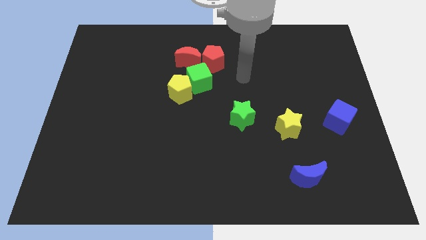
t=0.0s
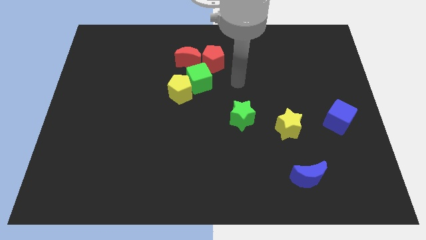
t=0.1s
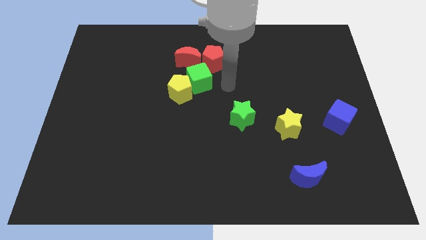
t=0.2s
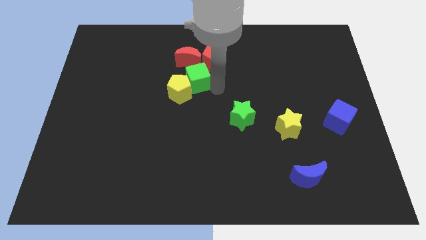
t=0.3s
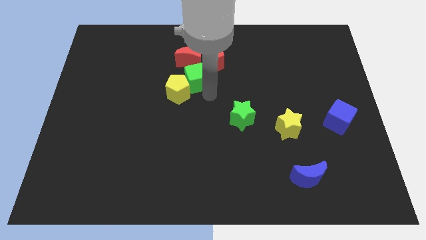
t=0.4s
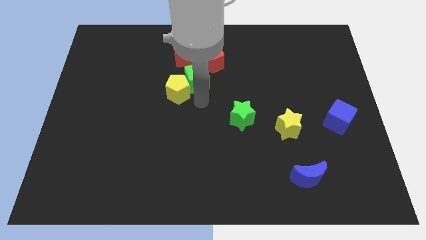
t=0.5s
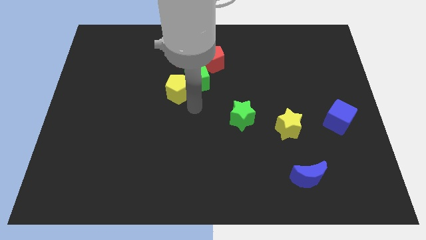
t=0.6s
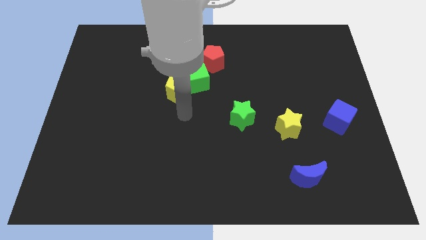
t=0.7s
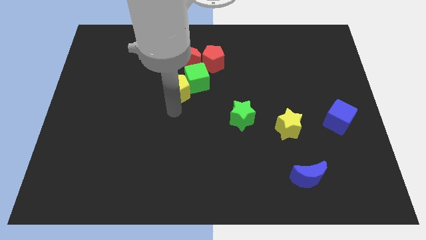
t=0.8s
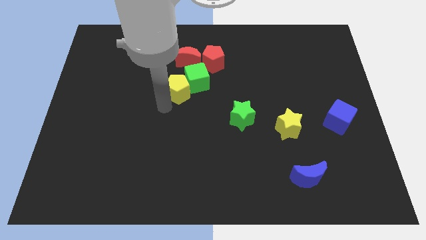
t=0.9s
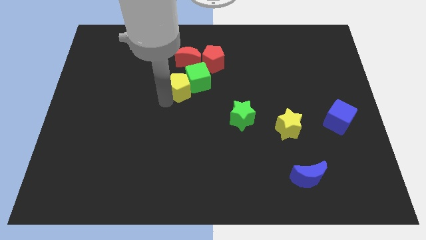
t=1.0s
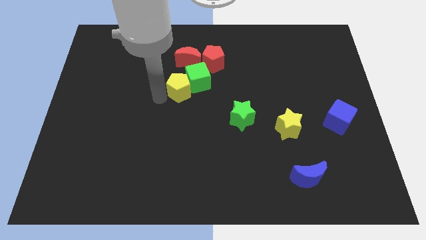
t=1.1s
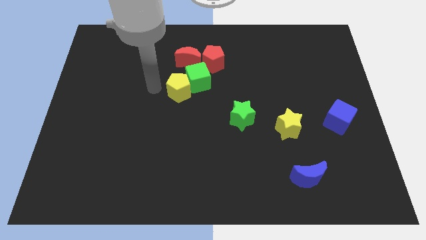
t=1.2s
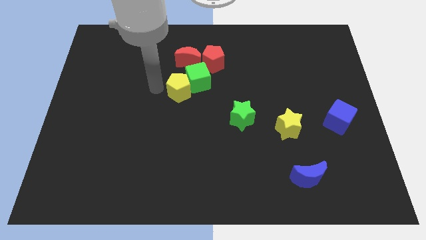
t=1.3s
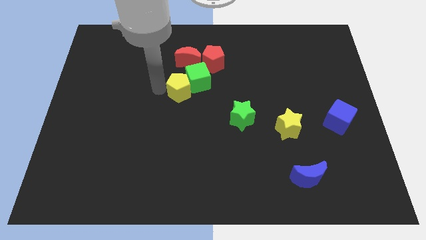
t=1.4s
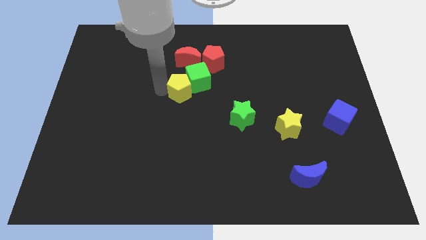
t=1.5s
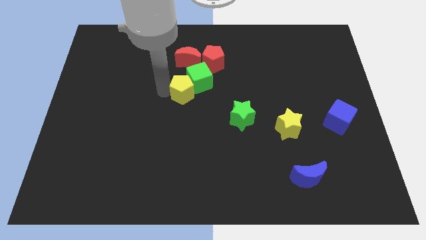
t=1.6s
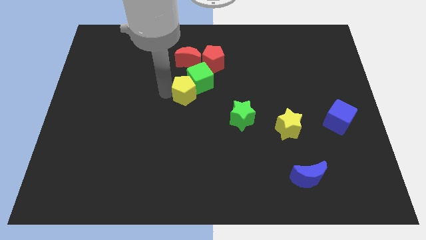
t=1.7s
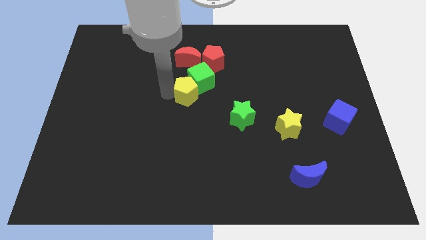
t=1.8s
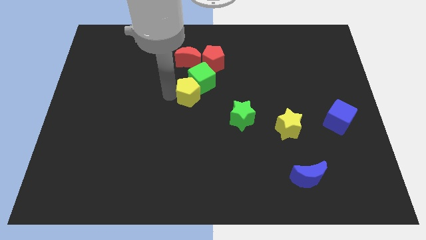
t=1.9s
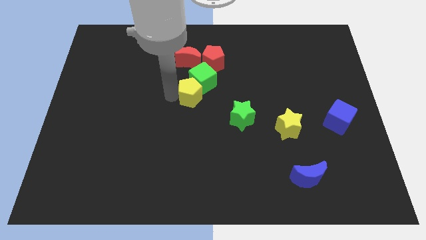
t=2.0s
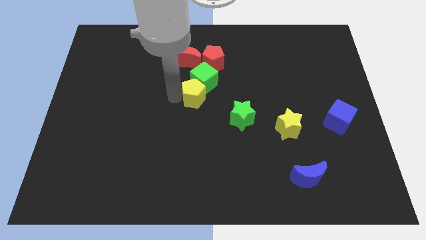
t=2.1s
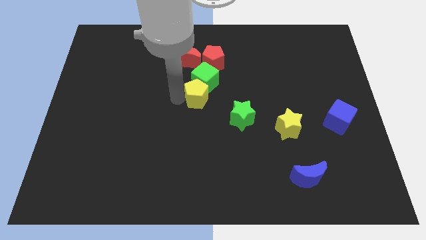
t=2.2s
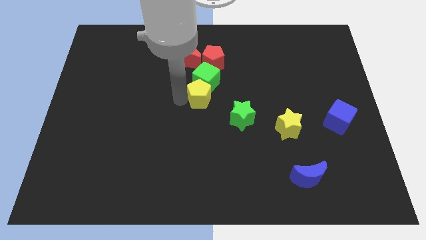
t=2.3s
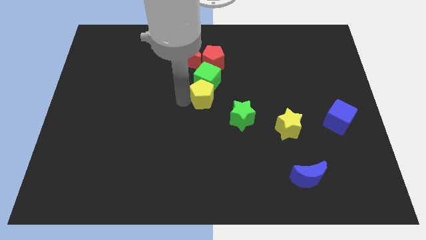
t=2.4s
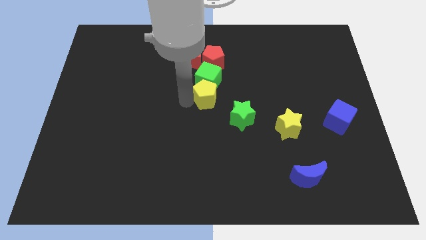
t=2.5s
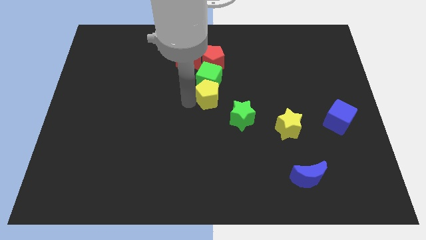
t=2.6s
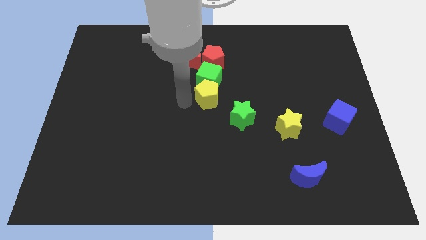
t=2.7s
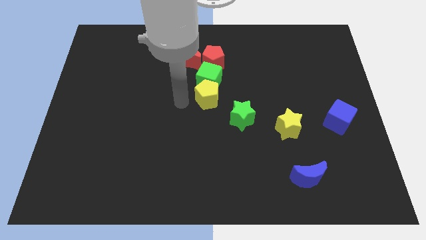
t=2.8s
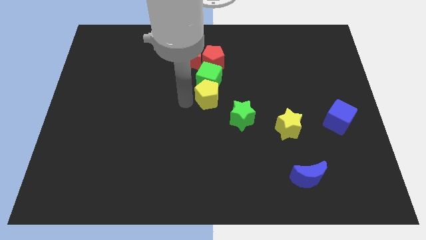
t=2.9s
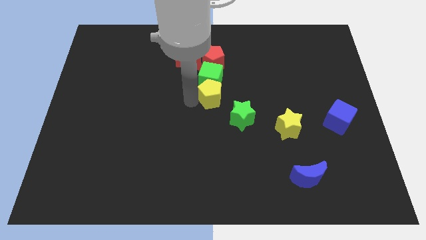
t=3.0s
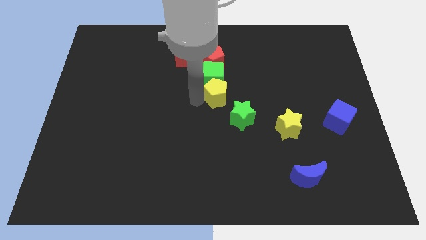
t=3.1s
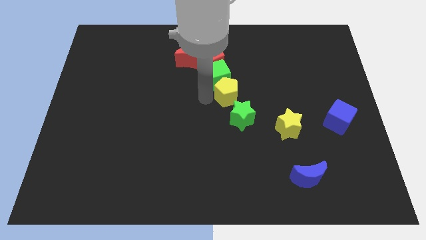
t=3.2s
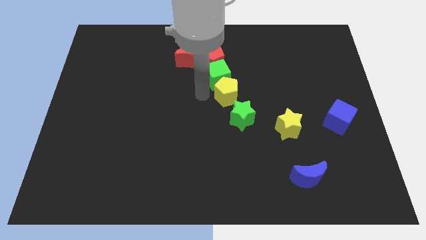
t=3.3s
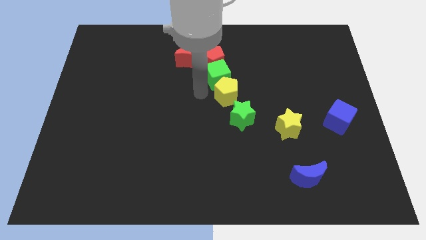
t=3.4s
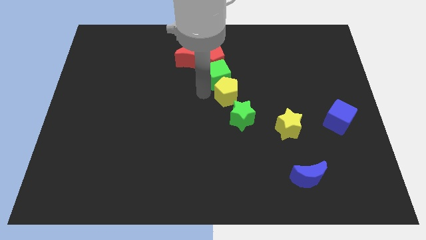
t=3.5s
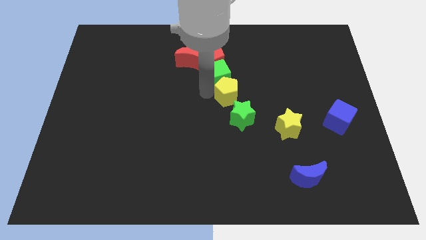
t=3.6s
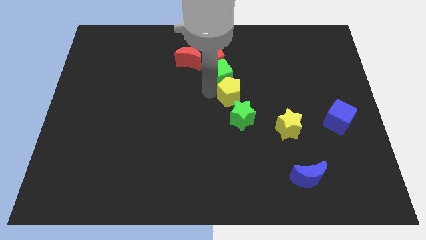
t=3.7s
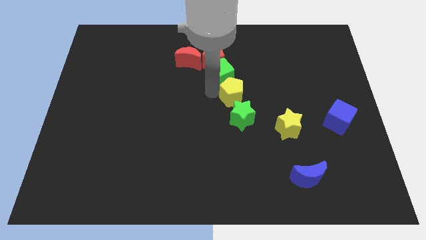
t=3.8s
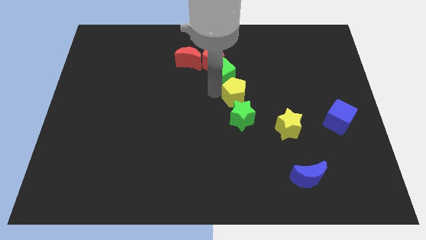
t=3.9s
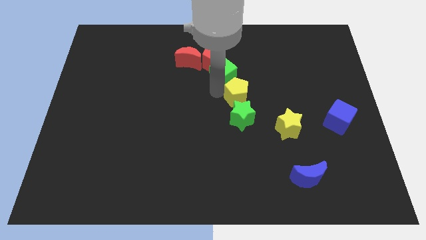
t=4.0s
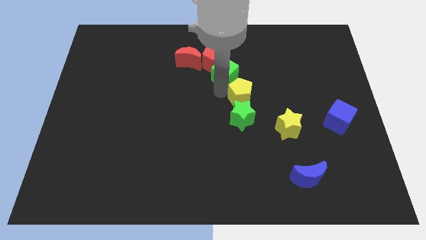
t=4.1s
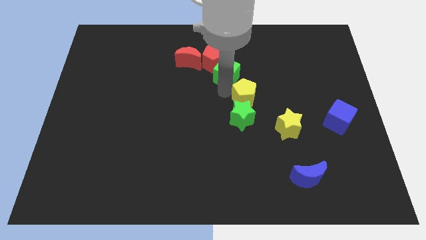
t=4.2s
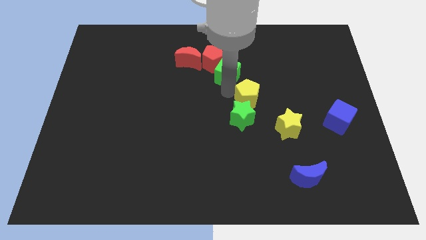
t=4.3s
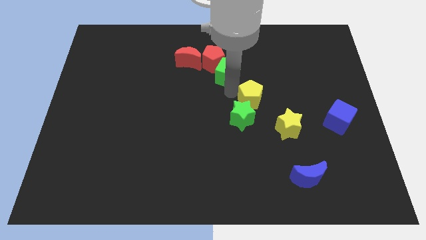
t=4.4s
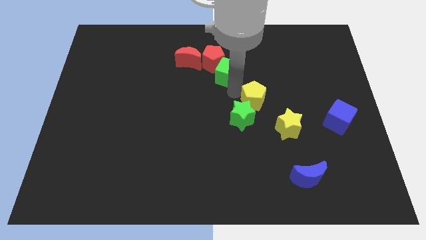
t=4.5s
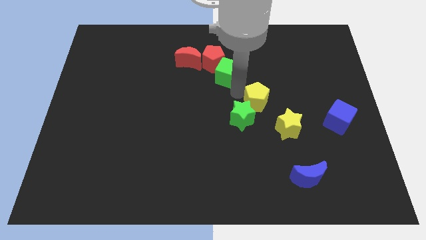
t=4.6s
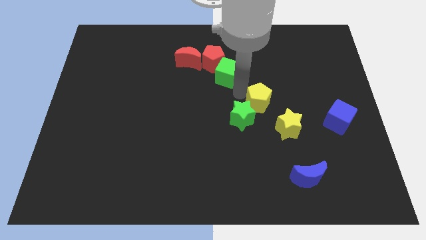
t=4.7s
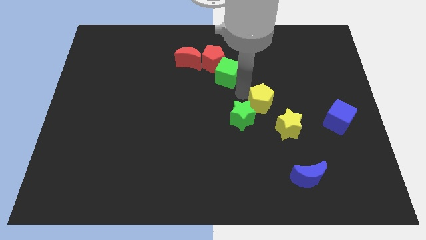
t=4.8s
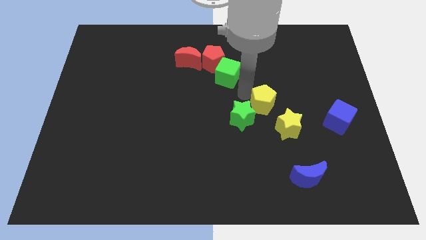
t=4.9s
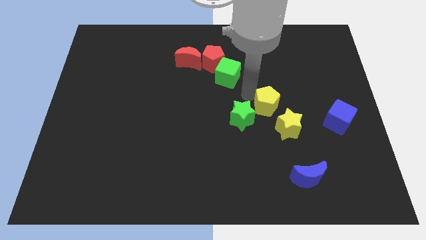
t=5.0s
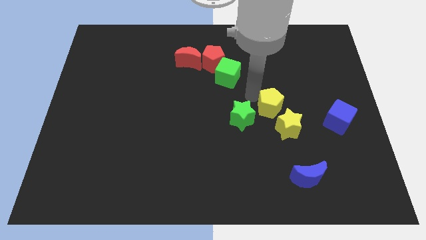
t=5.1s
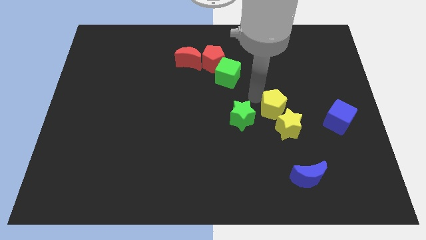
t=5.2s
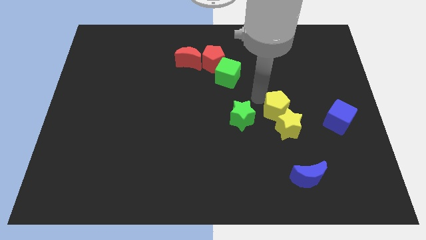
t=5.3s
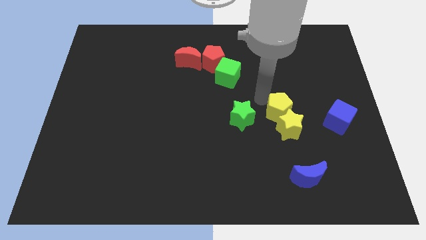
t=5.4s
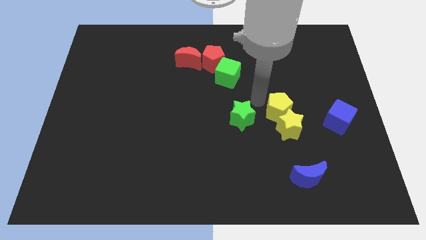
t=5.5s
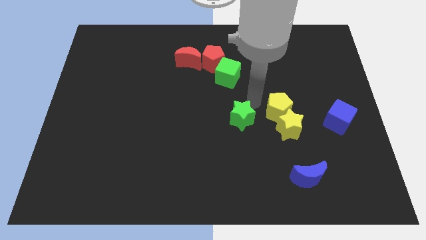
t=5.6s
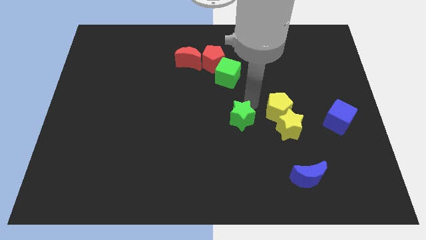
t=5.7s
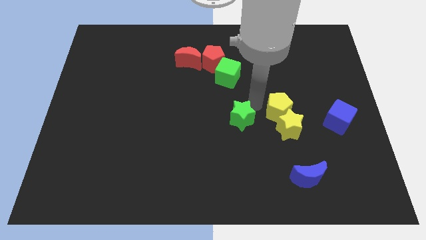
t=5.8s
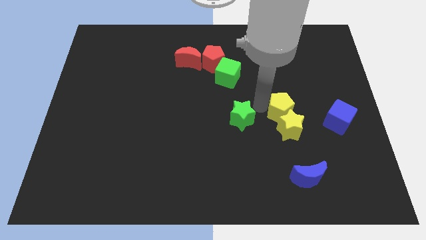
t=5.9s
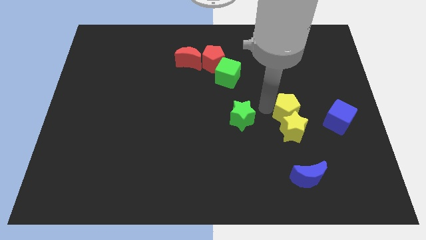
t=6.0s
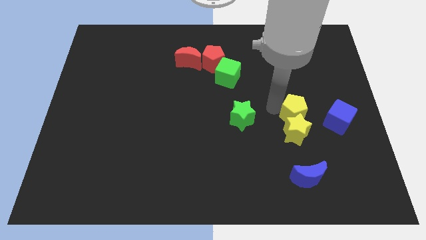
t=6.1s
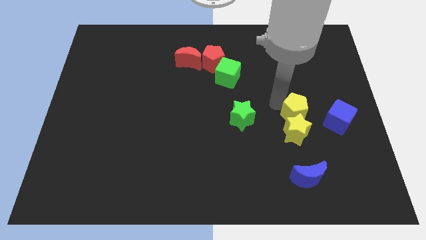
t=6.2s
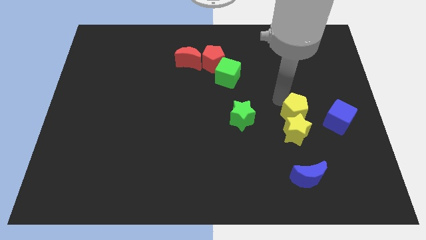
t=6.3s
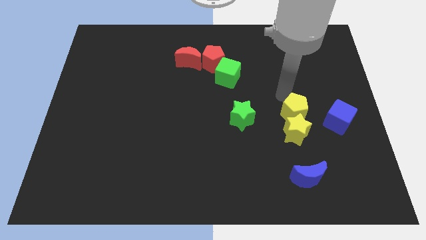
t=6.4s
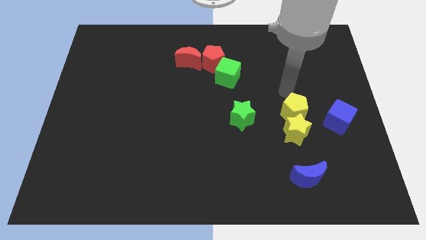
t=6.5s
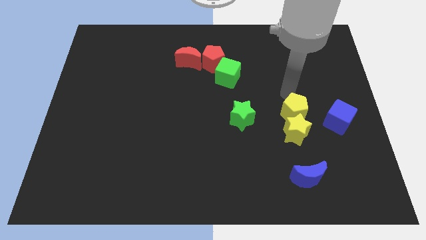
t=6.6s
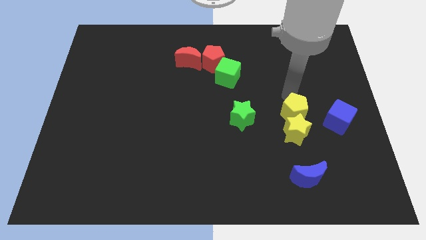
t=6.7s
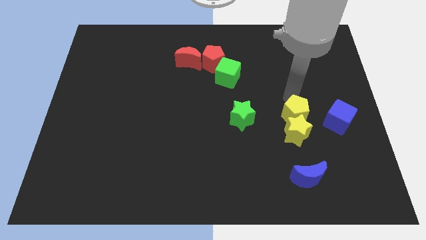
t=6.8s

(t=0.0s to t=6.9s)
move the yellow pentagon to the top of the blue moon
